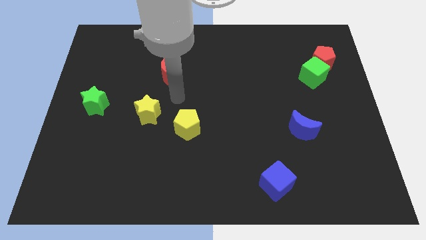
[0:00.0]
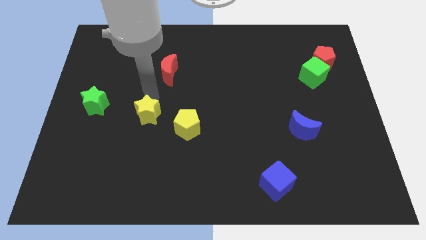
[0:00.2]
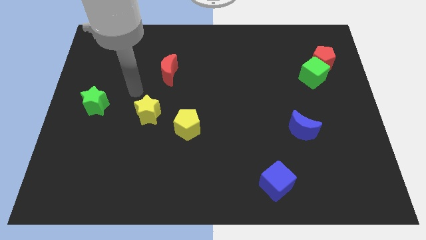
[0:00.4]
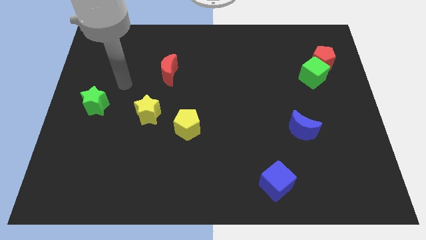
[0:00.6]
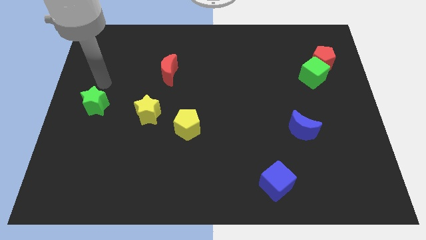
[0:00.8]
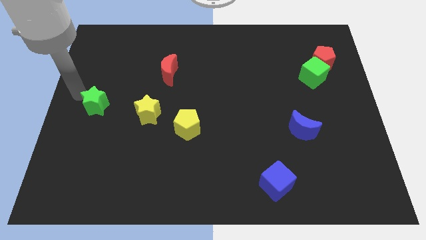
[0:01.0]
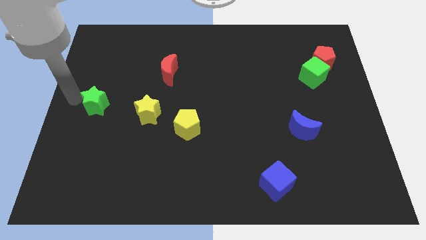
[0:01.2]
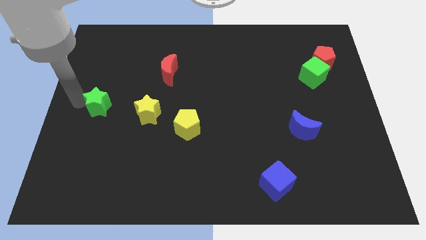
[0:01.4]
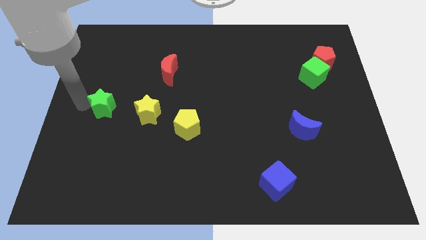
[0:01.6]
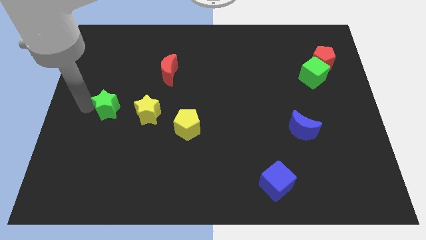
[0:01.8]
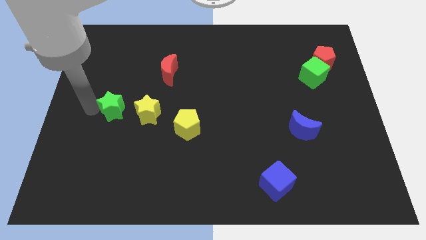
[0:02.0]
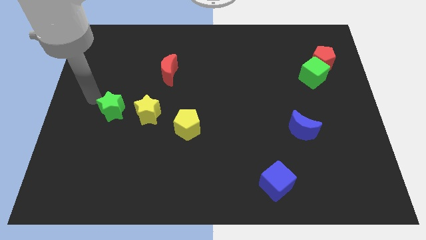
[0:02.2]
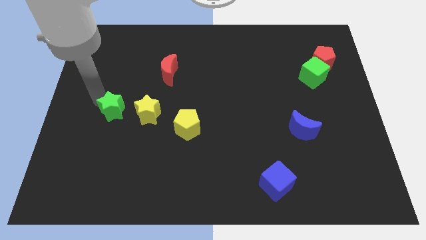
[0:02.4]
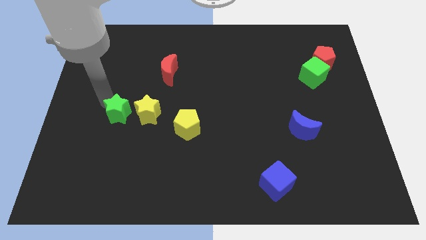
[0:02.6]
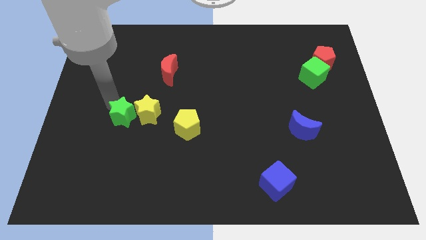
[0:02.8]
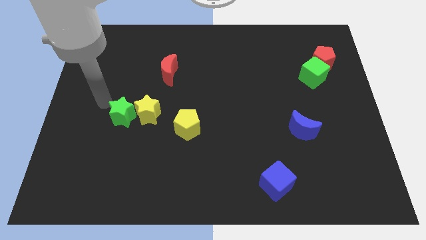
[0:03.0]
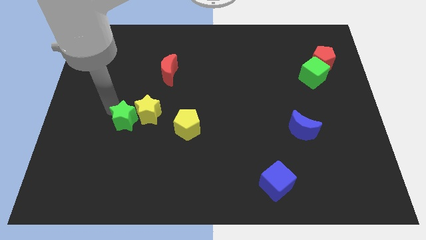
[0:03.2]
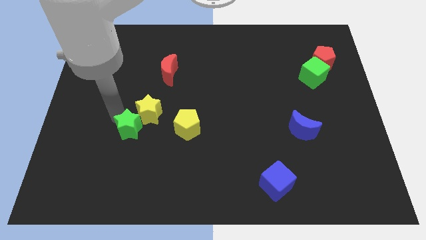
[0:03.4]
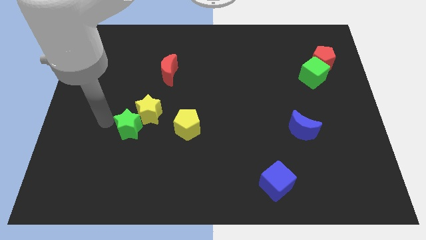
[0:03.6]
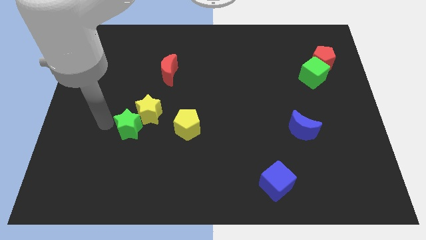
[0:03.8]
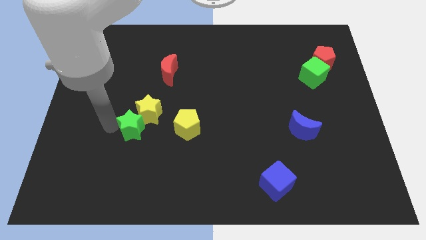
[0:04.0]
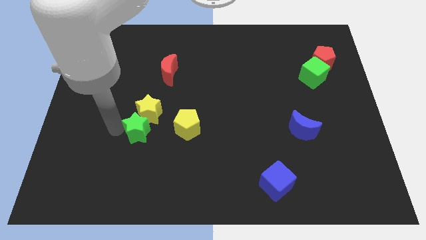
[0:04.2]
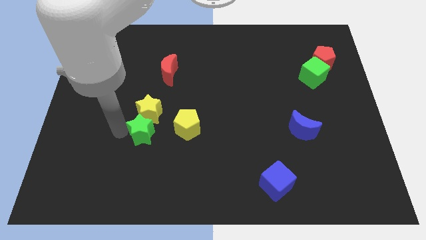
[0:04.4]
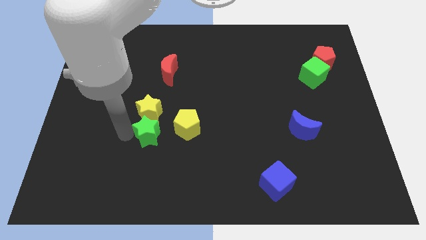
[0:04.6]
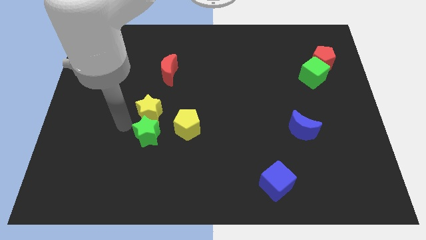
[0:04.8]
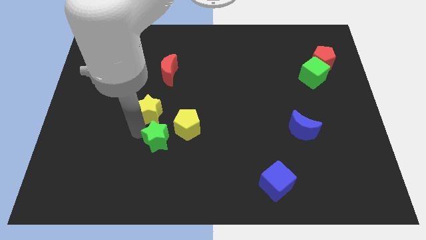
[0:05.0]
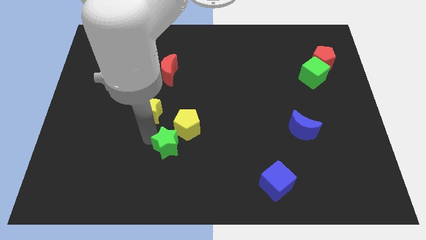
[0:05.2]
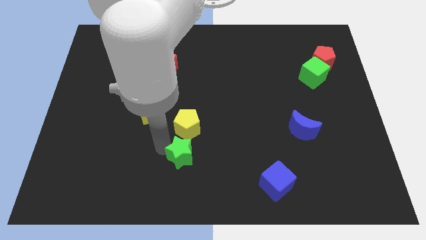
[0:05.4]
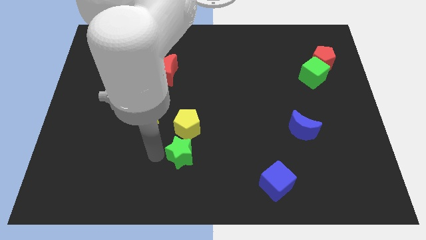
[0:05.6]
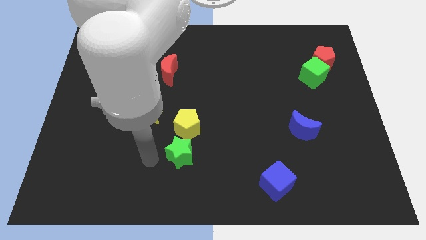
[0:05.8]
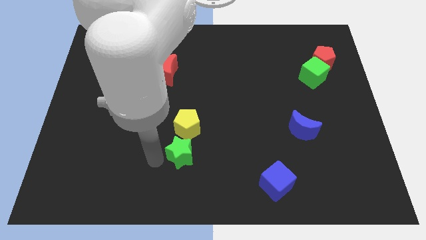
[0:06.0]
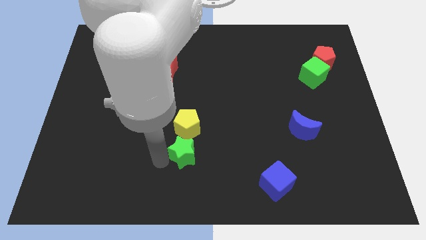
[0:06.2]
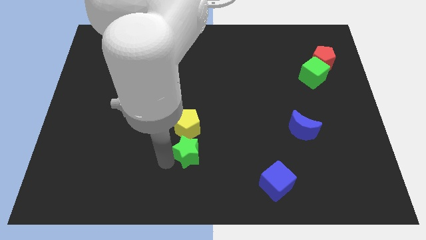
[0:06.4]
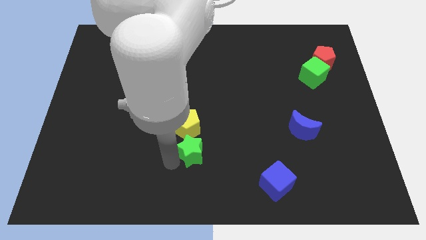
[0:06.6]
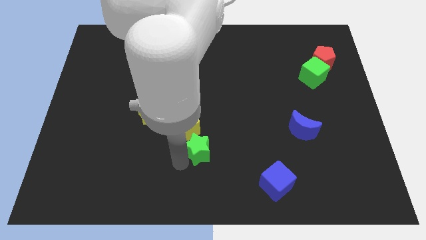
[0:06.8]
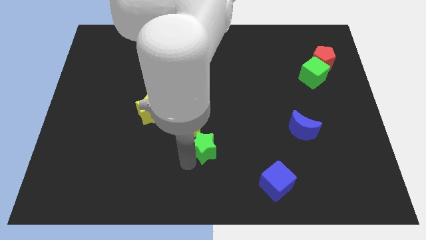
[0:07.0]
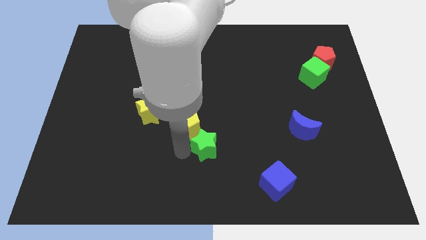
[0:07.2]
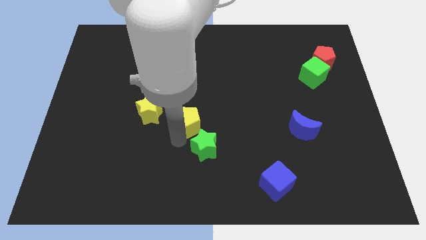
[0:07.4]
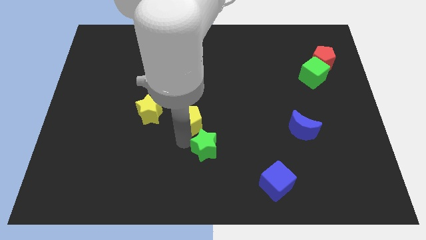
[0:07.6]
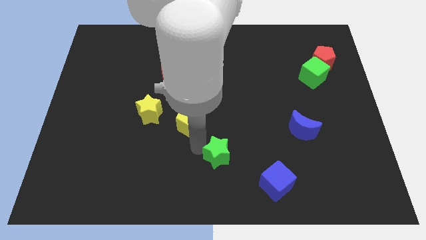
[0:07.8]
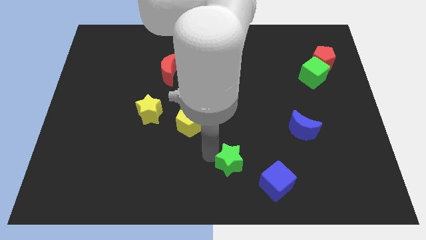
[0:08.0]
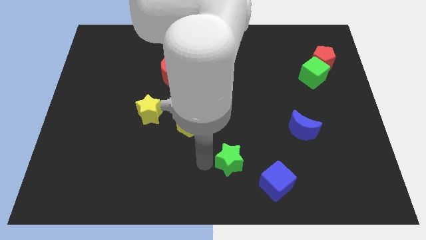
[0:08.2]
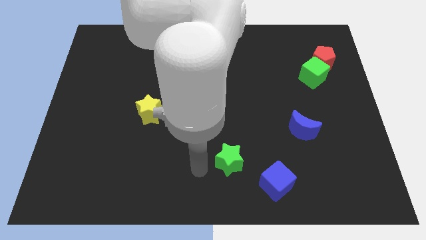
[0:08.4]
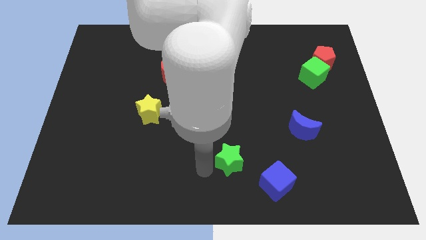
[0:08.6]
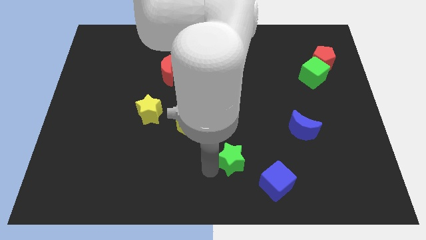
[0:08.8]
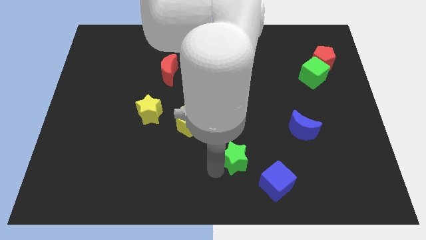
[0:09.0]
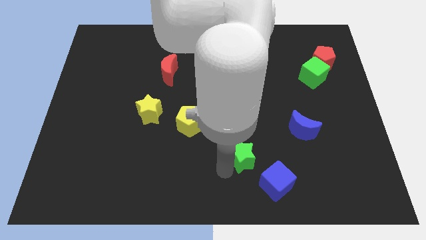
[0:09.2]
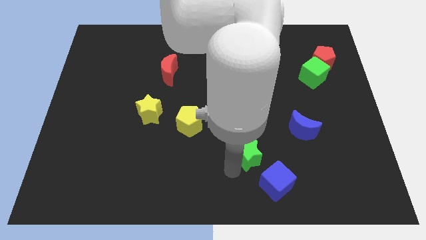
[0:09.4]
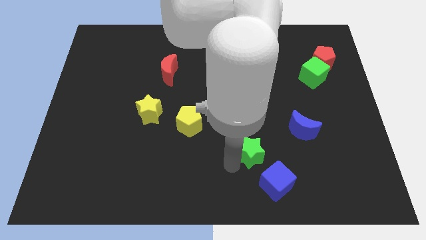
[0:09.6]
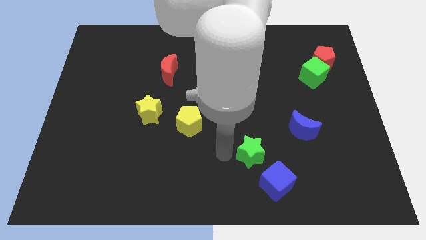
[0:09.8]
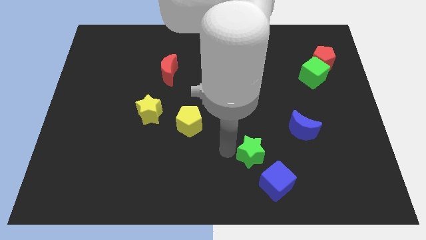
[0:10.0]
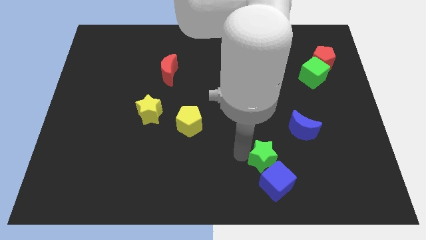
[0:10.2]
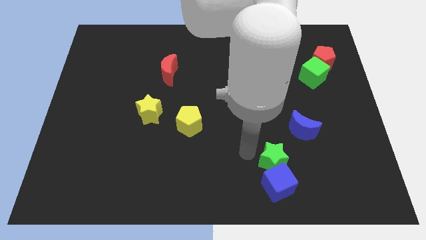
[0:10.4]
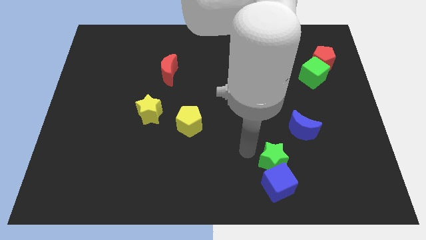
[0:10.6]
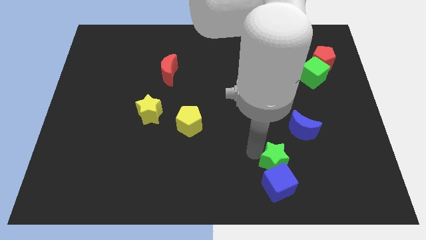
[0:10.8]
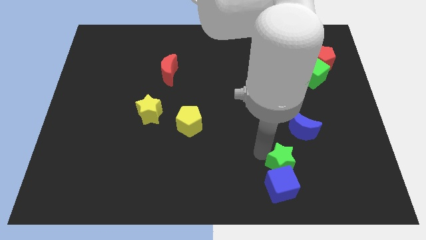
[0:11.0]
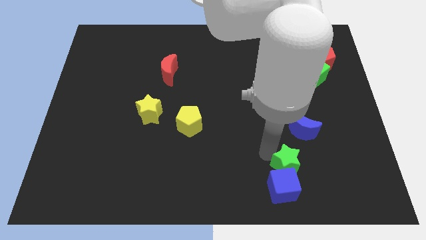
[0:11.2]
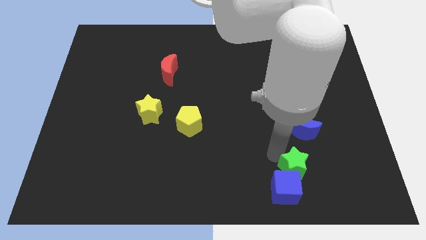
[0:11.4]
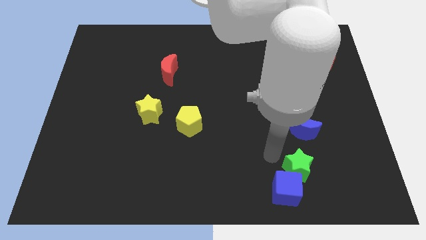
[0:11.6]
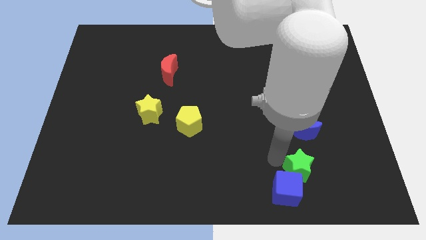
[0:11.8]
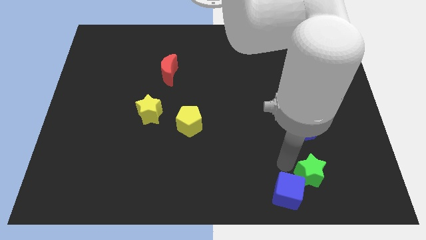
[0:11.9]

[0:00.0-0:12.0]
push the green star just right of the blue cube

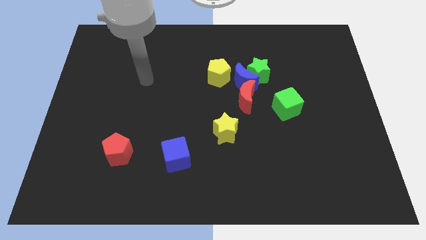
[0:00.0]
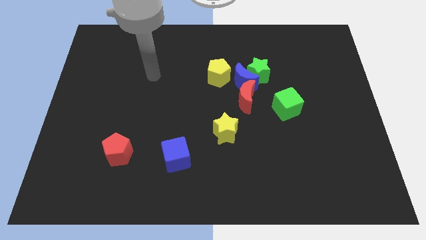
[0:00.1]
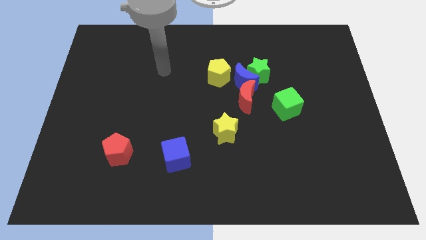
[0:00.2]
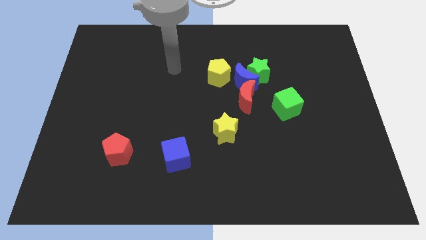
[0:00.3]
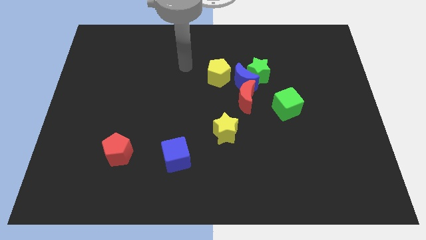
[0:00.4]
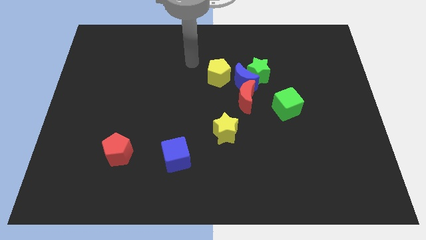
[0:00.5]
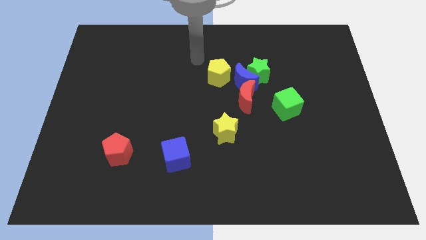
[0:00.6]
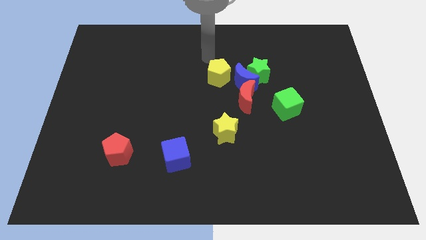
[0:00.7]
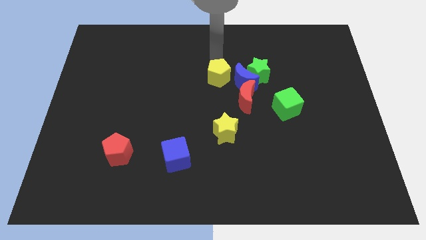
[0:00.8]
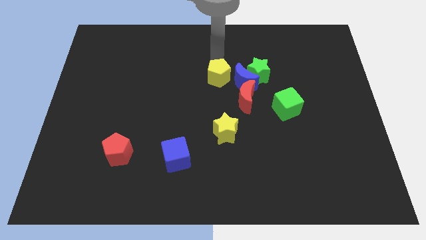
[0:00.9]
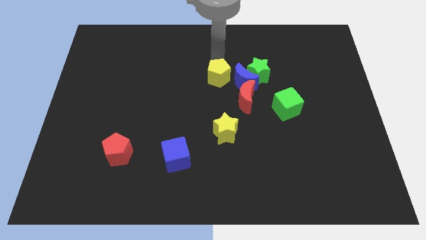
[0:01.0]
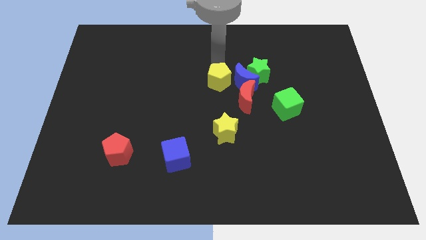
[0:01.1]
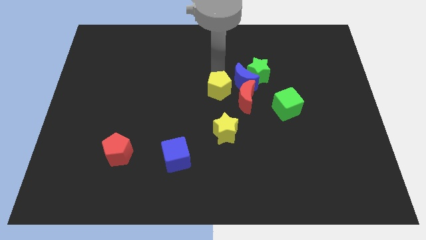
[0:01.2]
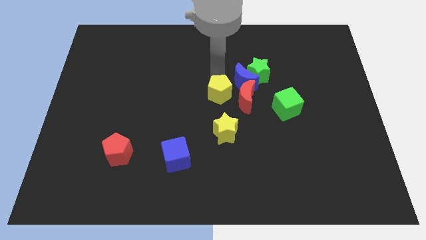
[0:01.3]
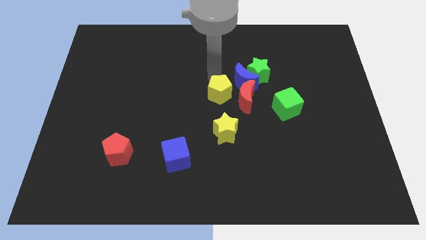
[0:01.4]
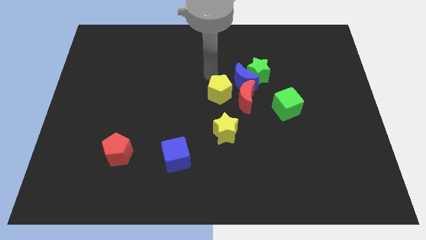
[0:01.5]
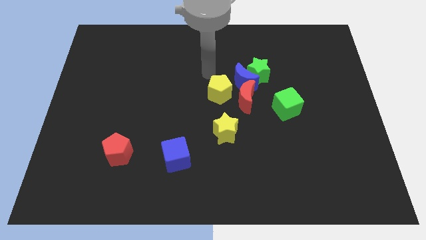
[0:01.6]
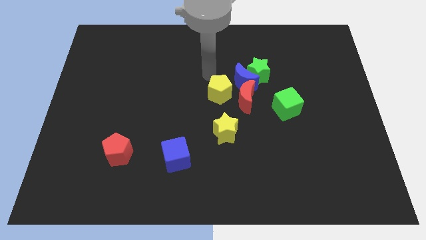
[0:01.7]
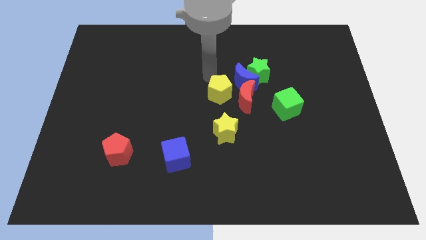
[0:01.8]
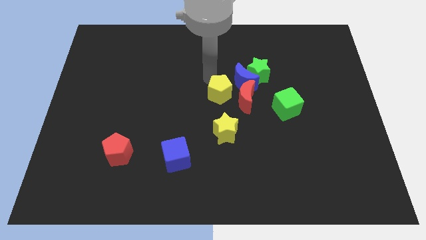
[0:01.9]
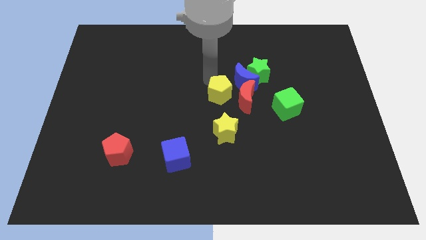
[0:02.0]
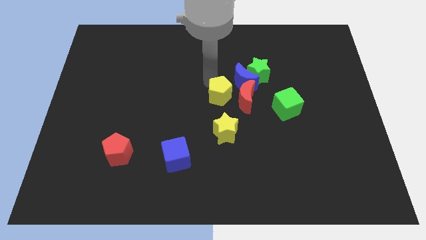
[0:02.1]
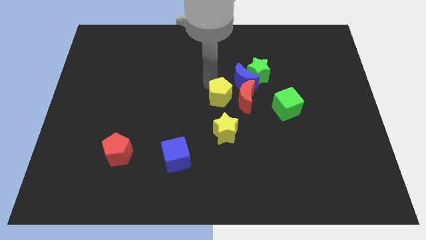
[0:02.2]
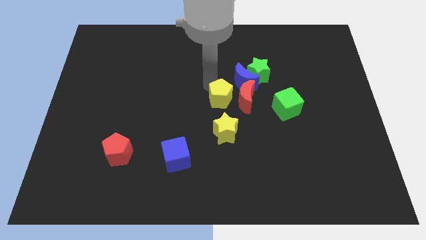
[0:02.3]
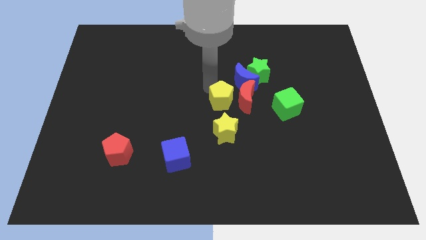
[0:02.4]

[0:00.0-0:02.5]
push the yellow pentagon to the left of the green cube
